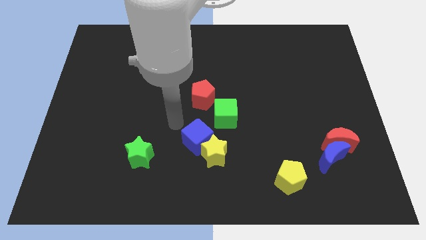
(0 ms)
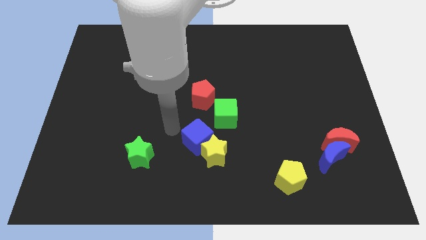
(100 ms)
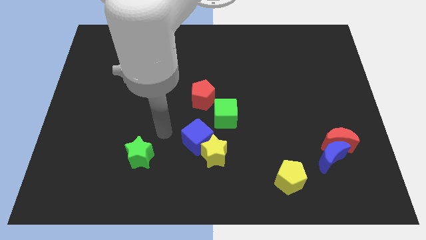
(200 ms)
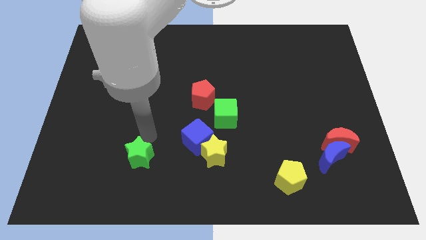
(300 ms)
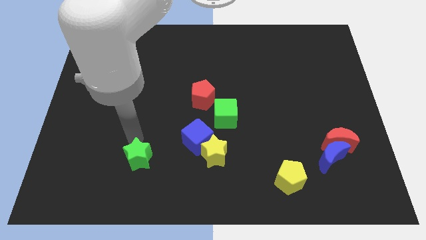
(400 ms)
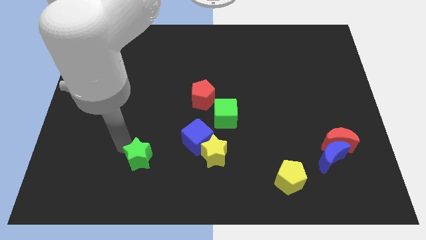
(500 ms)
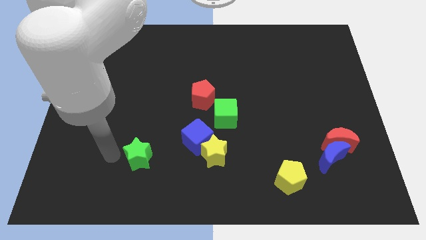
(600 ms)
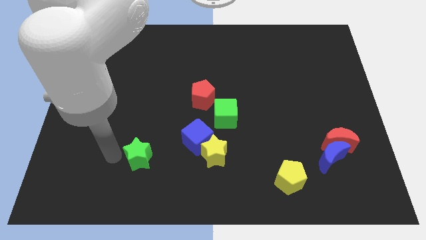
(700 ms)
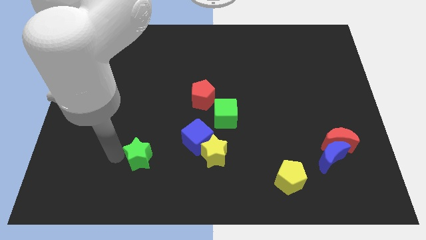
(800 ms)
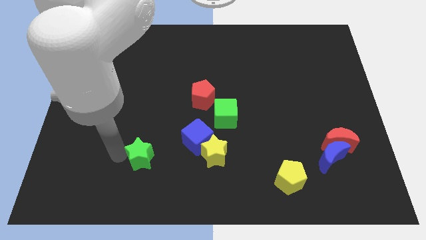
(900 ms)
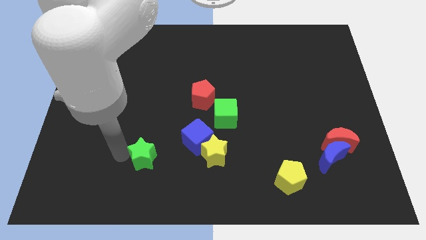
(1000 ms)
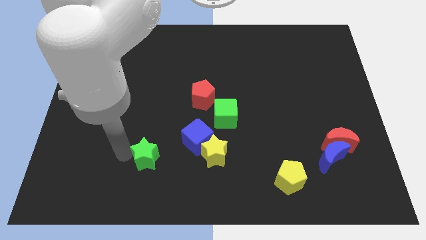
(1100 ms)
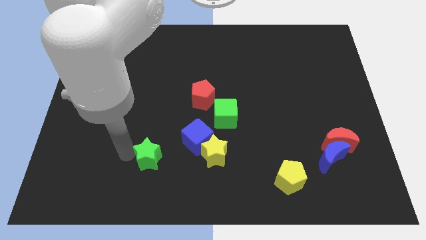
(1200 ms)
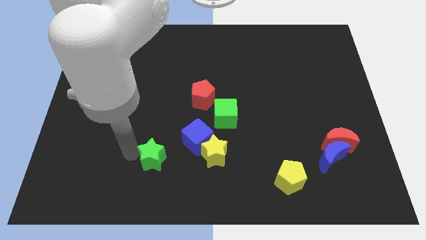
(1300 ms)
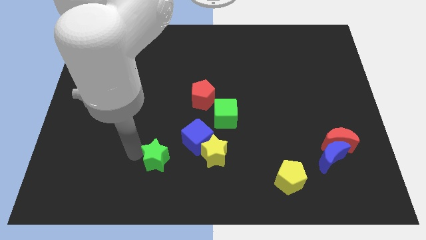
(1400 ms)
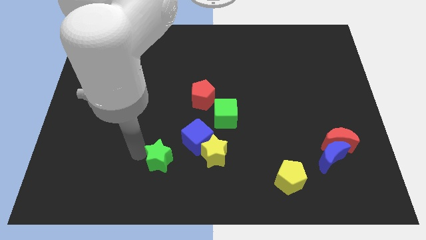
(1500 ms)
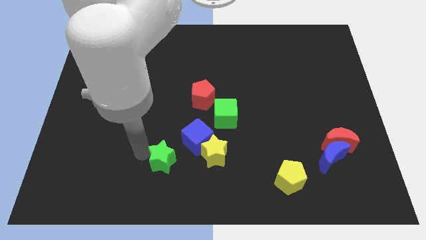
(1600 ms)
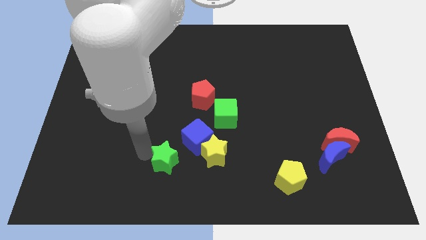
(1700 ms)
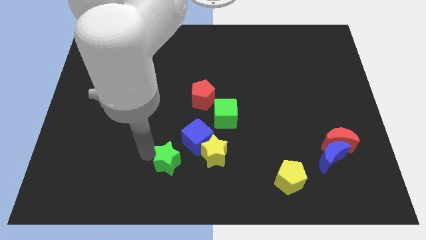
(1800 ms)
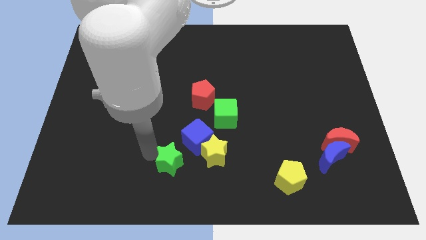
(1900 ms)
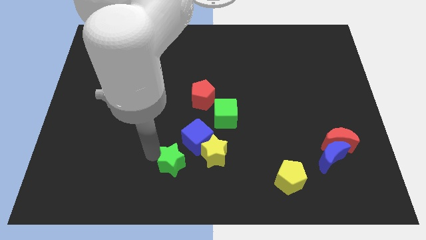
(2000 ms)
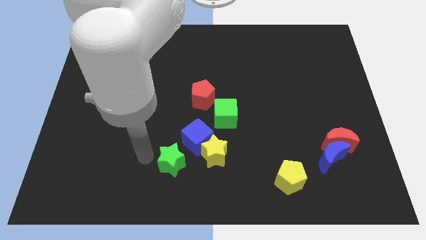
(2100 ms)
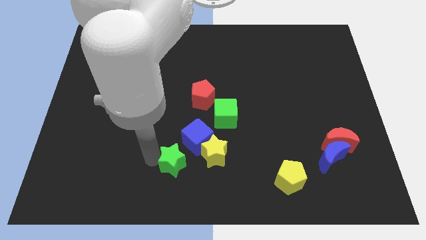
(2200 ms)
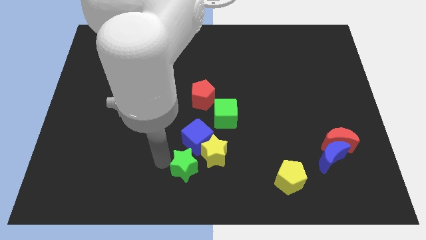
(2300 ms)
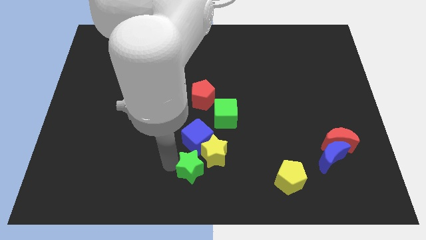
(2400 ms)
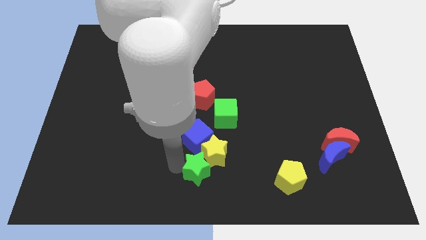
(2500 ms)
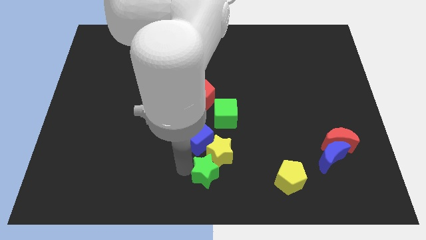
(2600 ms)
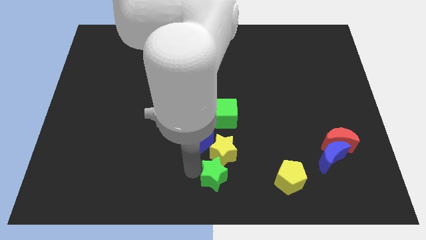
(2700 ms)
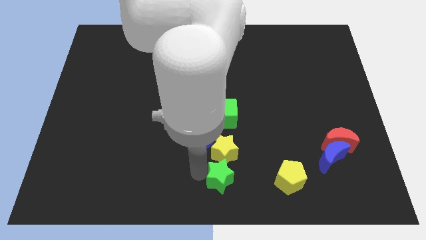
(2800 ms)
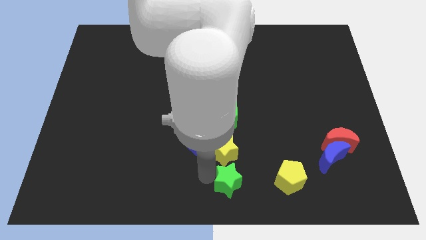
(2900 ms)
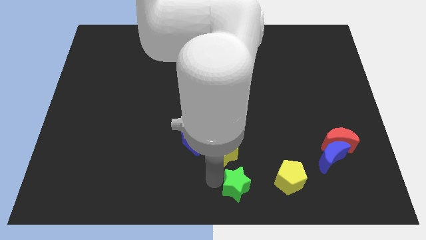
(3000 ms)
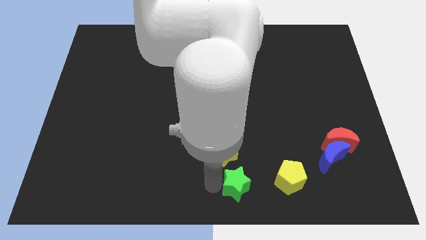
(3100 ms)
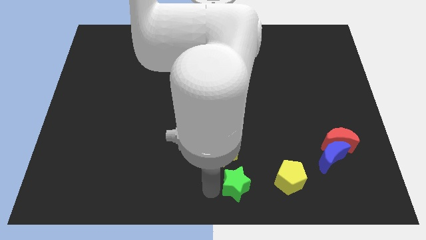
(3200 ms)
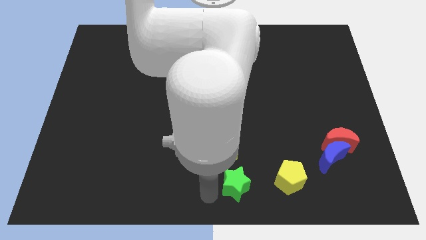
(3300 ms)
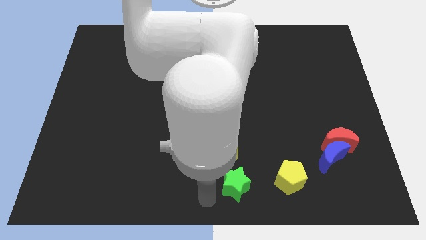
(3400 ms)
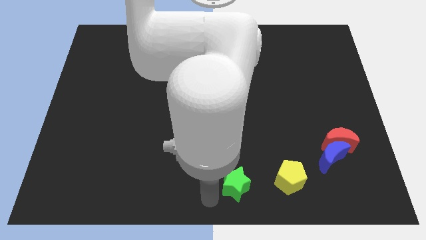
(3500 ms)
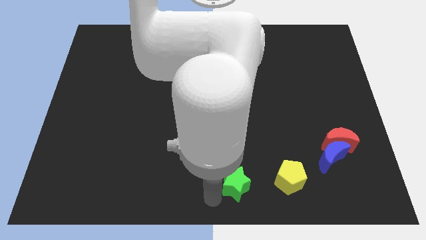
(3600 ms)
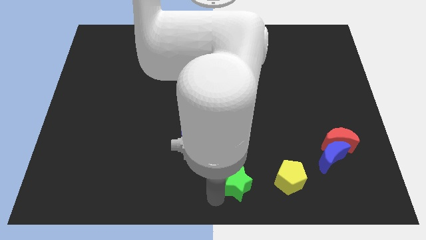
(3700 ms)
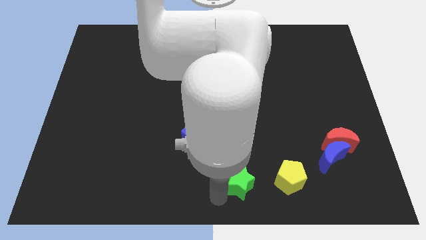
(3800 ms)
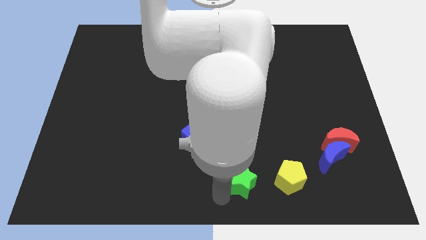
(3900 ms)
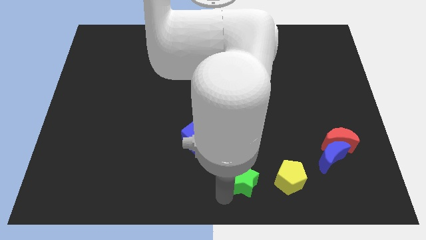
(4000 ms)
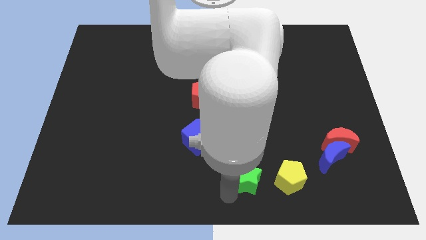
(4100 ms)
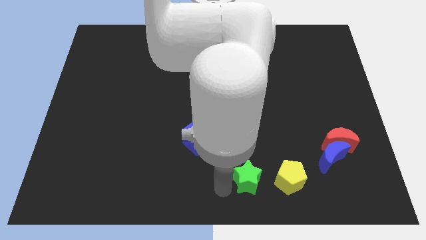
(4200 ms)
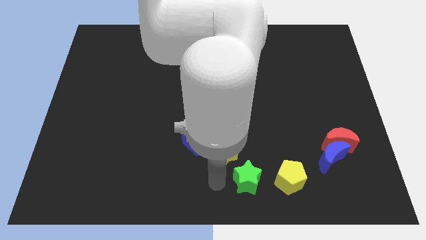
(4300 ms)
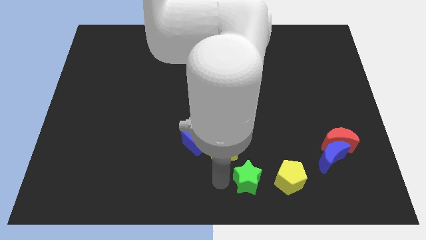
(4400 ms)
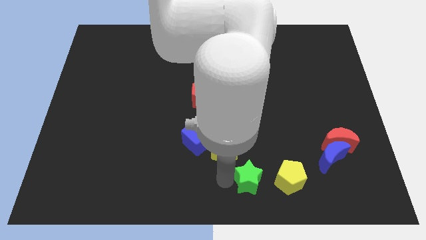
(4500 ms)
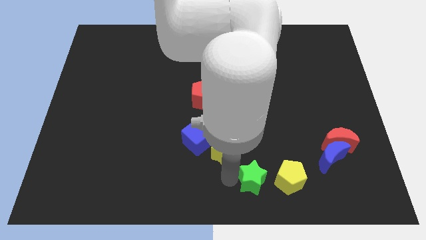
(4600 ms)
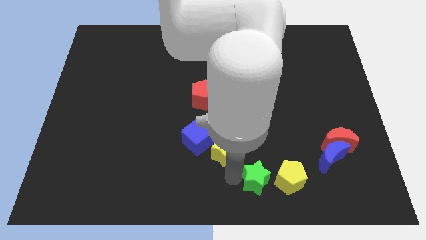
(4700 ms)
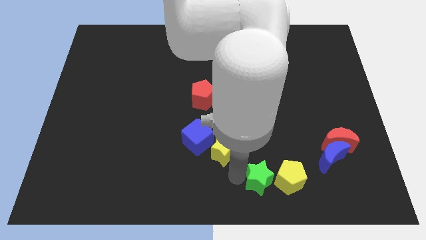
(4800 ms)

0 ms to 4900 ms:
put the green star to the yellow pentagon

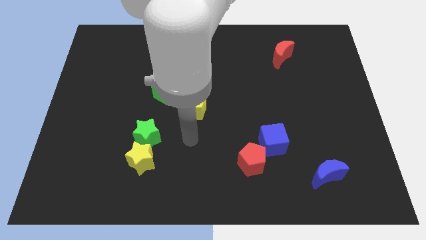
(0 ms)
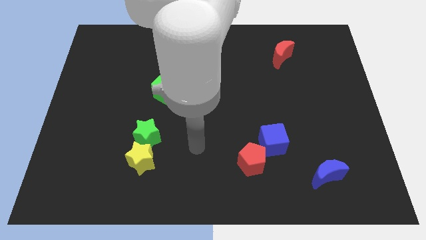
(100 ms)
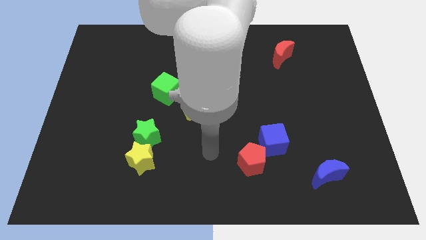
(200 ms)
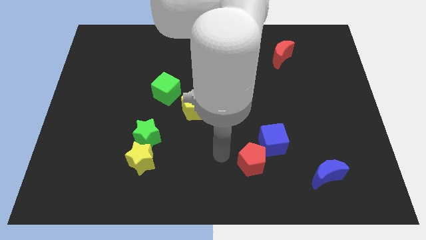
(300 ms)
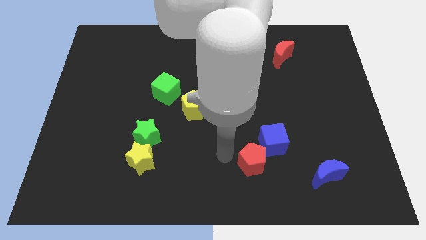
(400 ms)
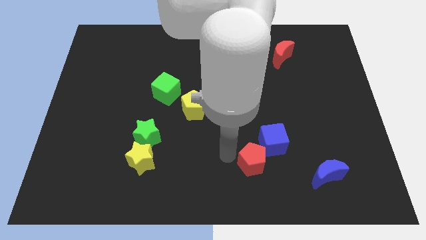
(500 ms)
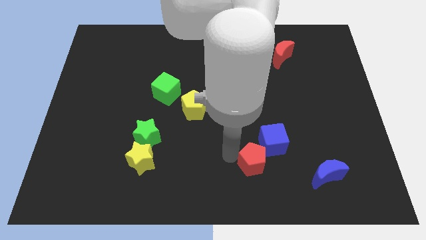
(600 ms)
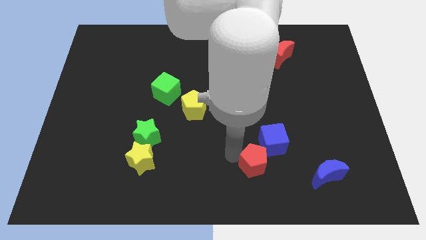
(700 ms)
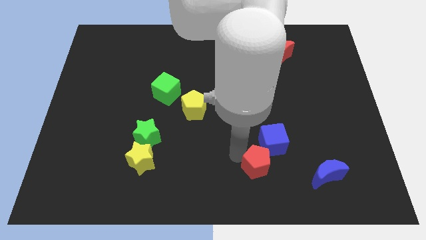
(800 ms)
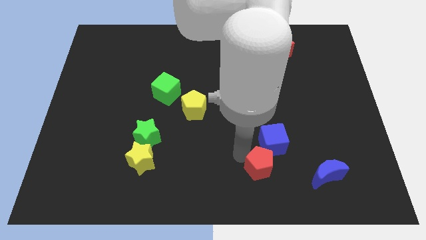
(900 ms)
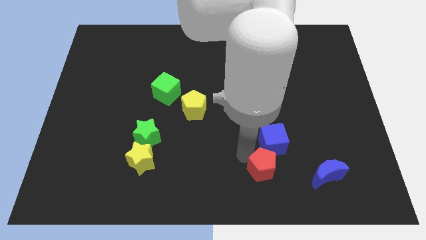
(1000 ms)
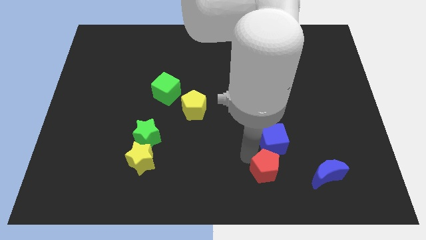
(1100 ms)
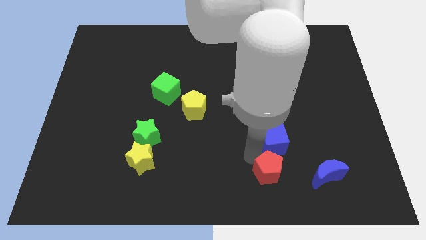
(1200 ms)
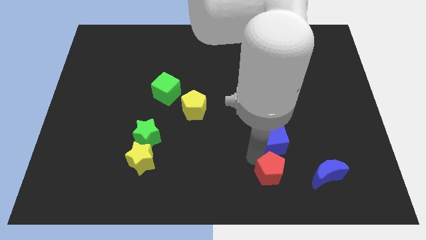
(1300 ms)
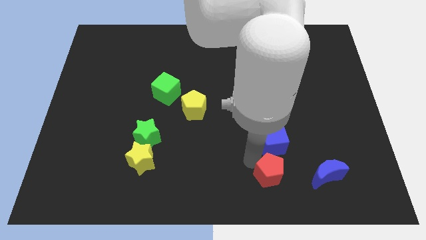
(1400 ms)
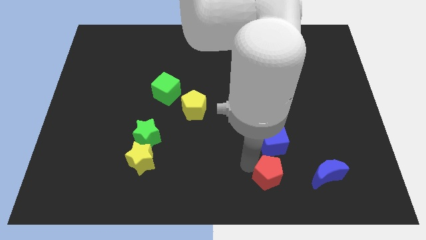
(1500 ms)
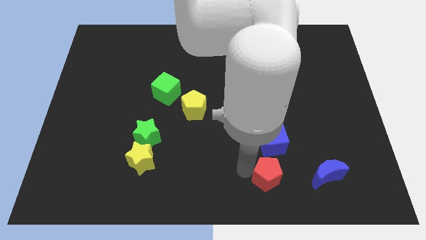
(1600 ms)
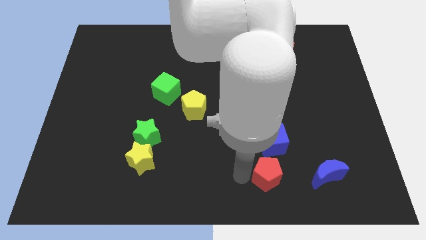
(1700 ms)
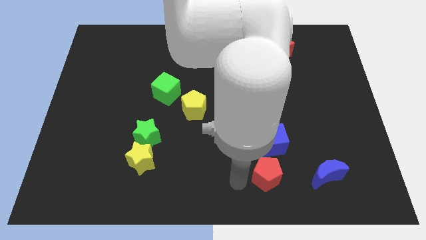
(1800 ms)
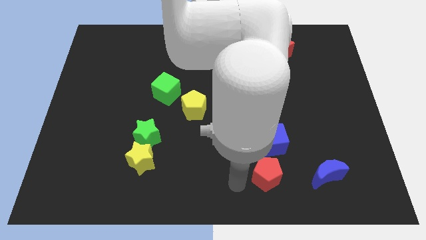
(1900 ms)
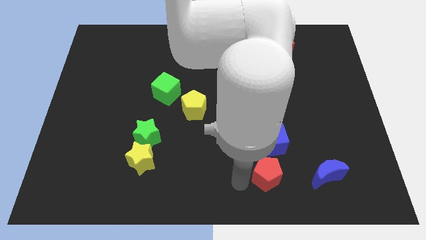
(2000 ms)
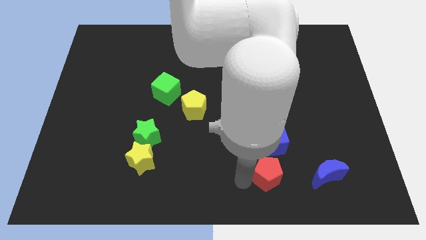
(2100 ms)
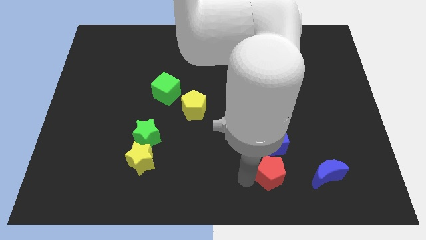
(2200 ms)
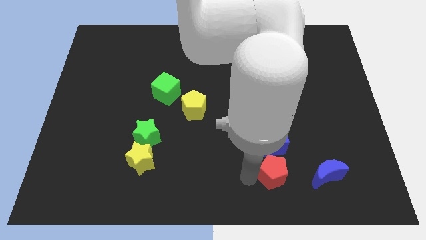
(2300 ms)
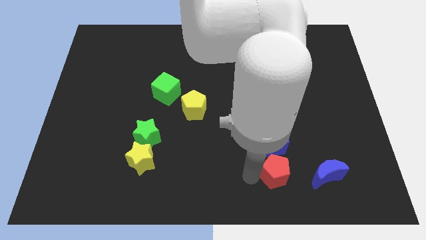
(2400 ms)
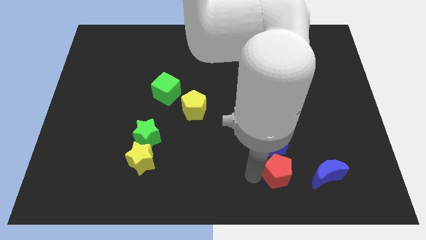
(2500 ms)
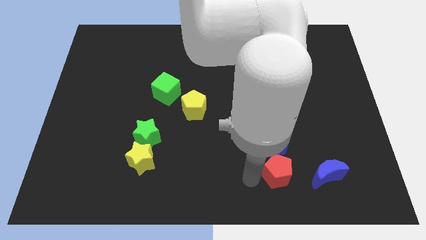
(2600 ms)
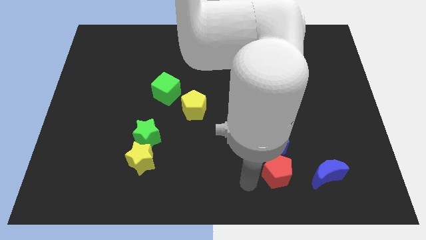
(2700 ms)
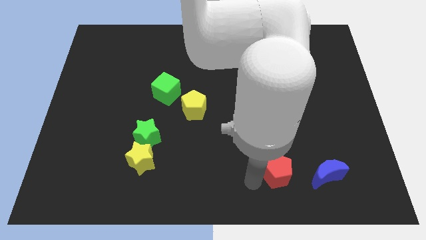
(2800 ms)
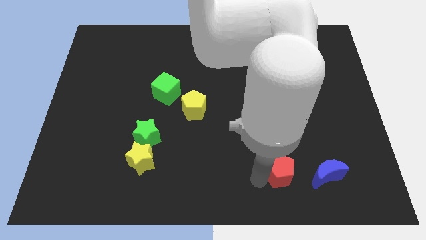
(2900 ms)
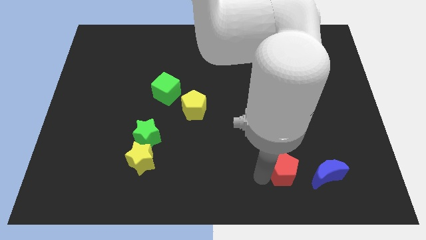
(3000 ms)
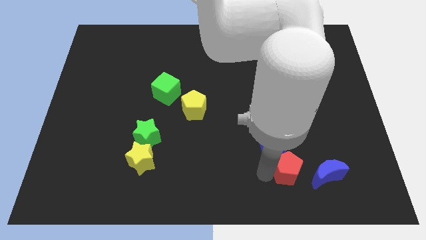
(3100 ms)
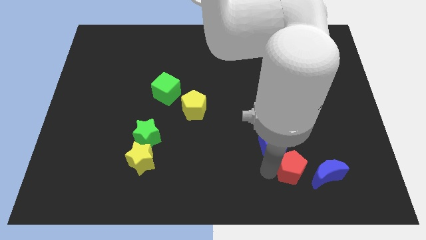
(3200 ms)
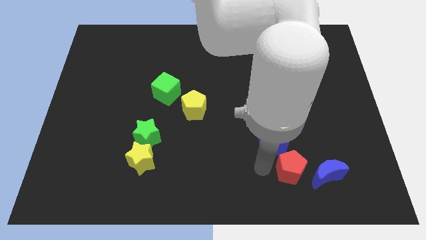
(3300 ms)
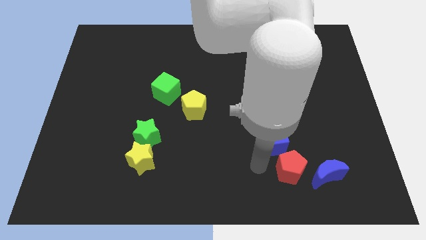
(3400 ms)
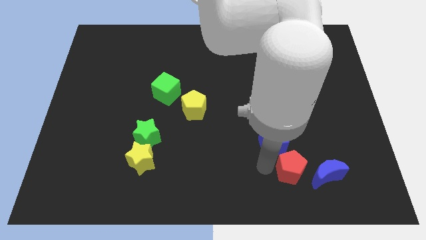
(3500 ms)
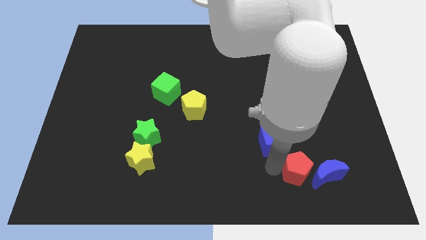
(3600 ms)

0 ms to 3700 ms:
move the red pentagon close to the blue moon
